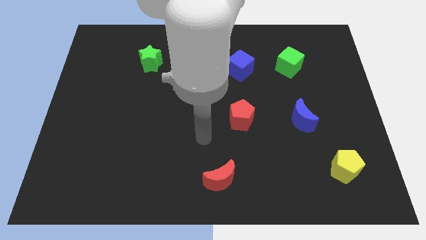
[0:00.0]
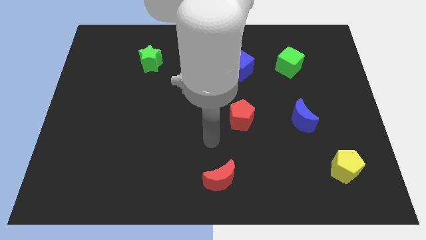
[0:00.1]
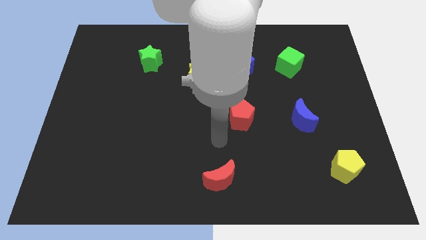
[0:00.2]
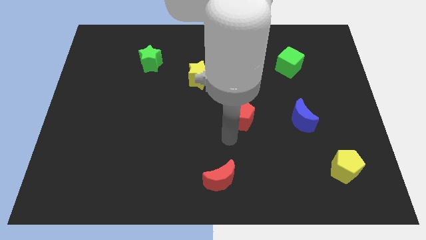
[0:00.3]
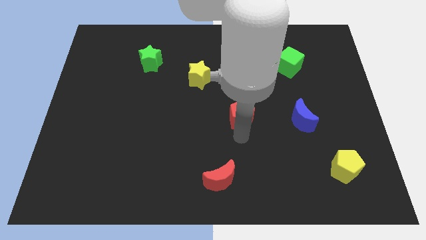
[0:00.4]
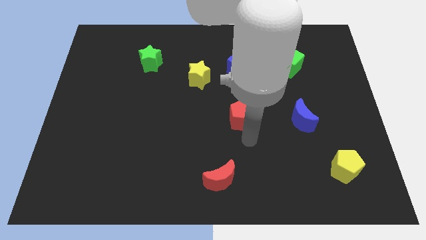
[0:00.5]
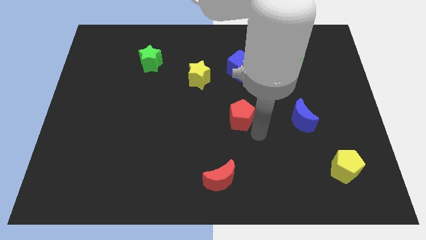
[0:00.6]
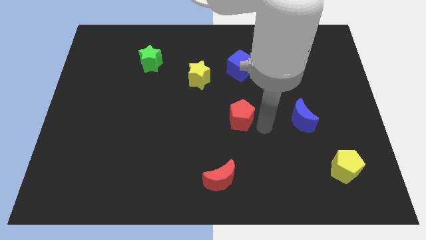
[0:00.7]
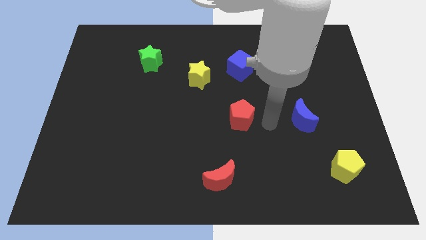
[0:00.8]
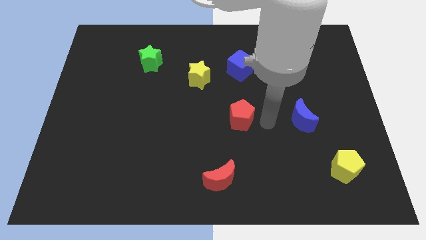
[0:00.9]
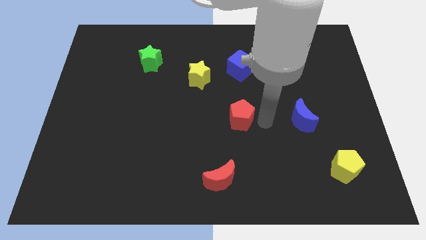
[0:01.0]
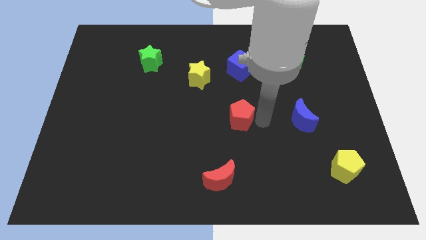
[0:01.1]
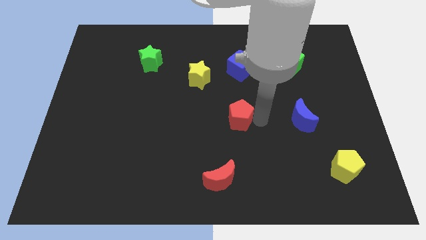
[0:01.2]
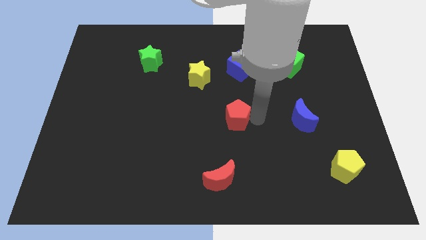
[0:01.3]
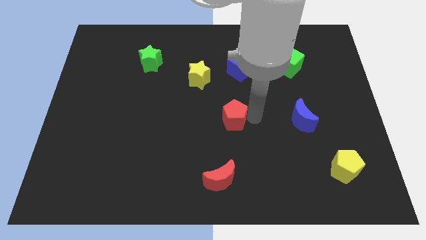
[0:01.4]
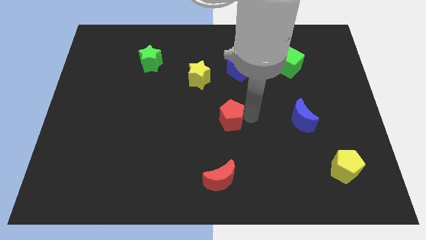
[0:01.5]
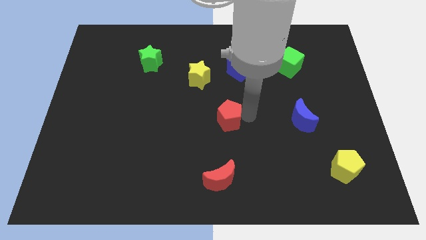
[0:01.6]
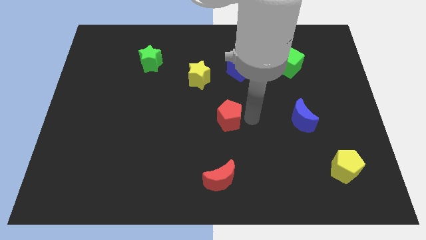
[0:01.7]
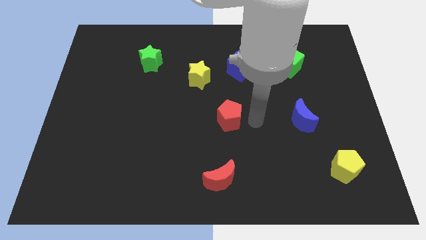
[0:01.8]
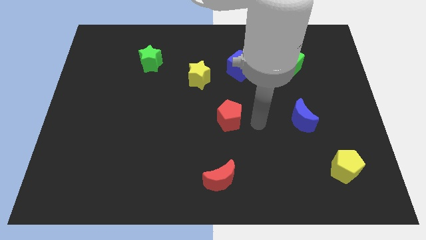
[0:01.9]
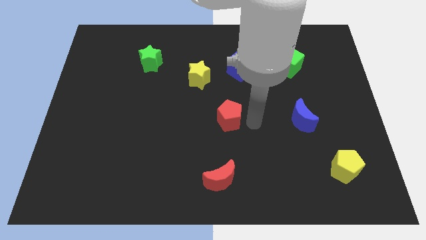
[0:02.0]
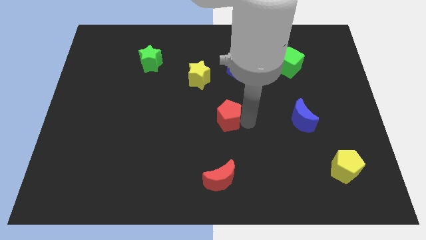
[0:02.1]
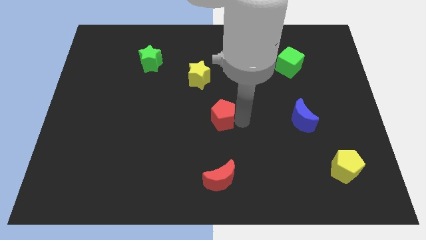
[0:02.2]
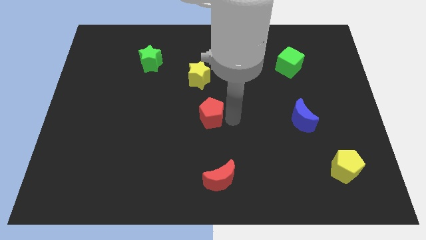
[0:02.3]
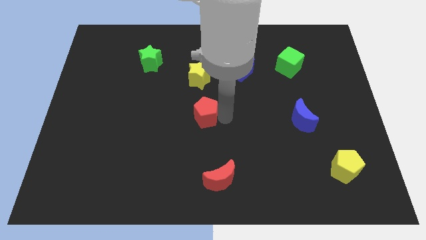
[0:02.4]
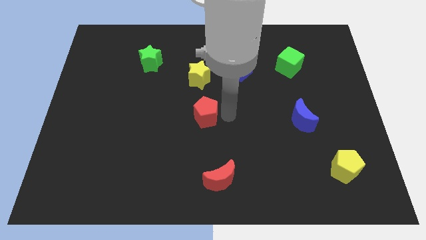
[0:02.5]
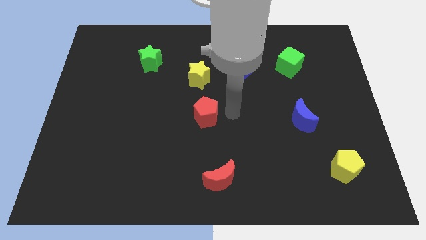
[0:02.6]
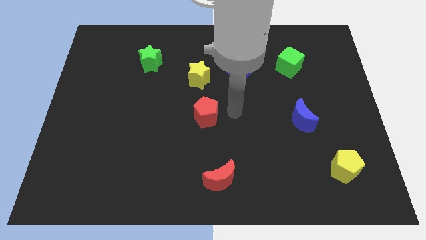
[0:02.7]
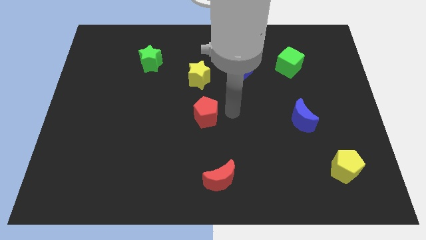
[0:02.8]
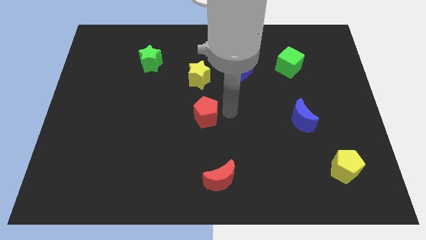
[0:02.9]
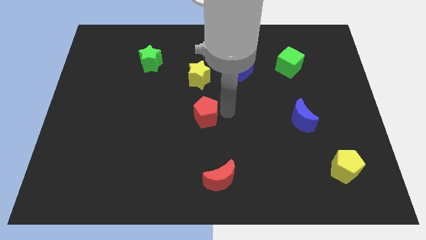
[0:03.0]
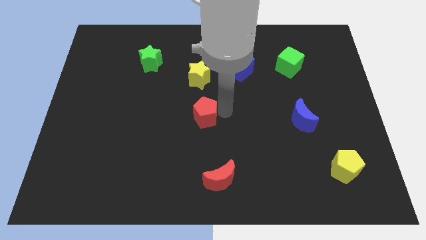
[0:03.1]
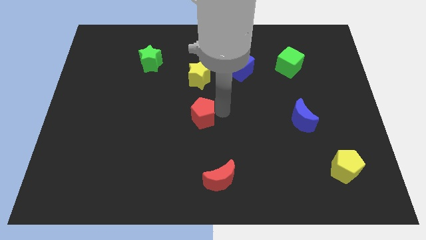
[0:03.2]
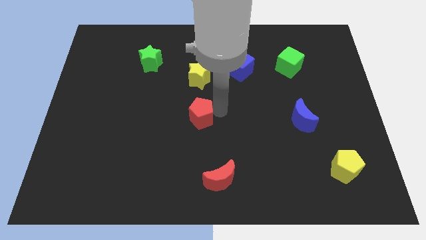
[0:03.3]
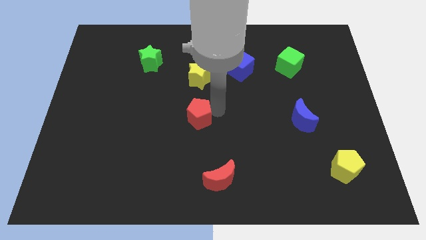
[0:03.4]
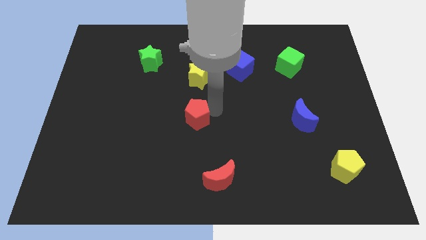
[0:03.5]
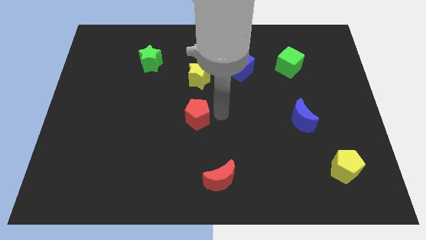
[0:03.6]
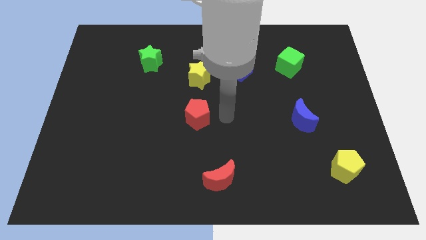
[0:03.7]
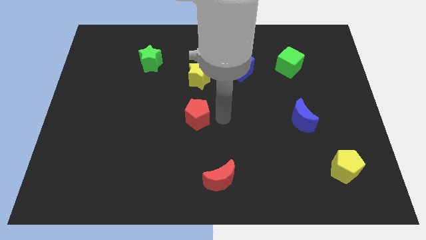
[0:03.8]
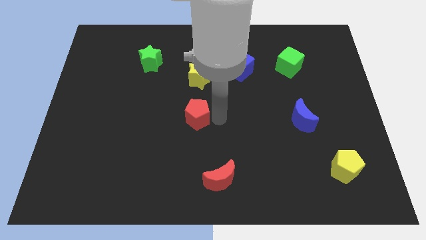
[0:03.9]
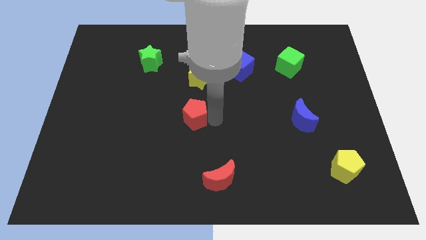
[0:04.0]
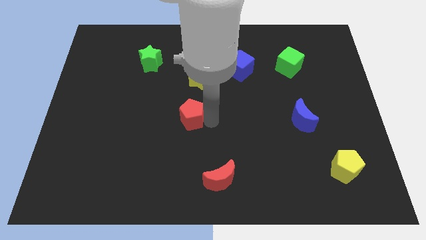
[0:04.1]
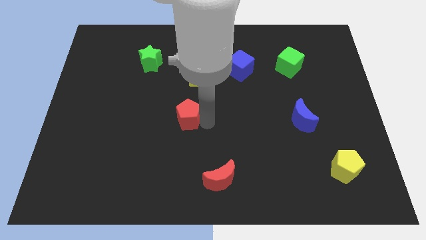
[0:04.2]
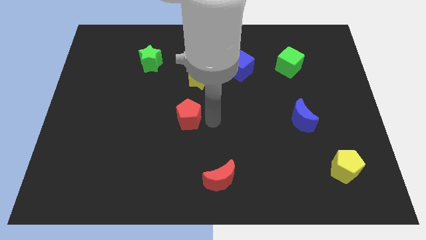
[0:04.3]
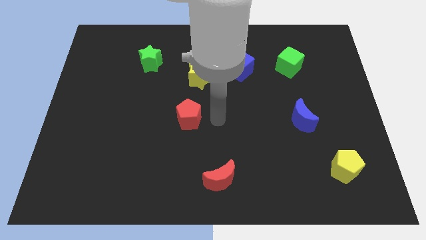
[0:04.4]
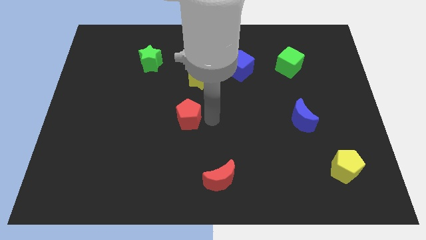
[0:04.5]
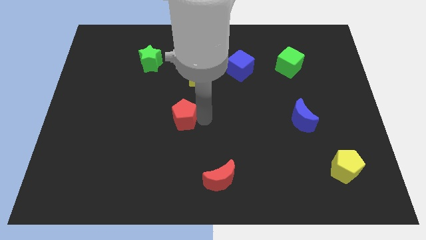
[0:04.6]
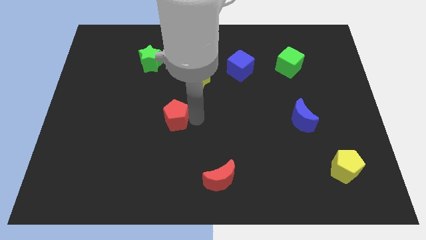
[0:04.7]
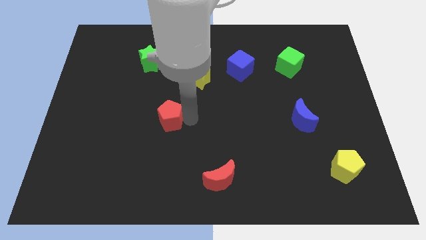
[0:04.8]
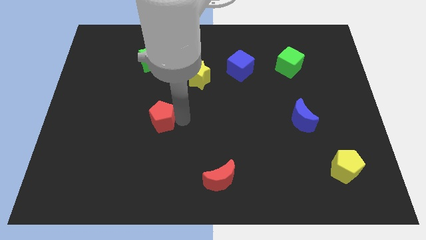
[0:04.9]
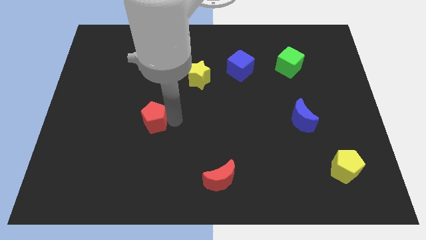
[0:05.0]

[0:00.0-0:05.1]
move the red pentagon to the left

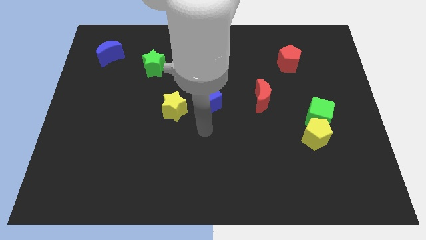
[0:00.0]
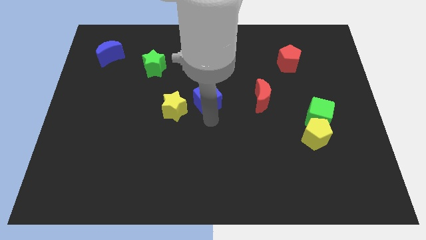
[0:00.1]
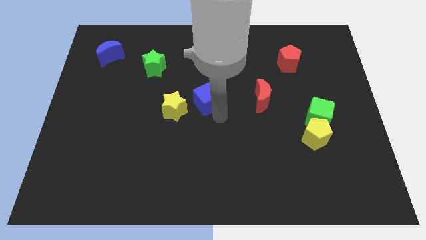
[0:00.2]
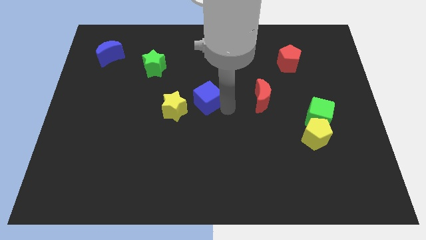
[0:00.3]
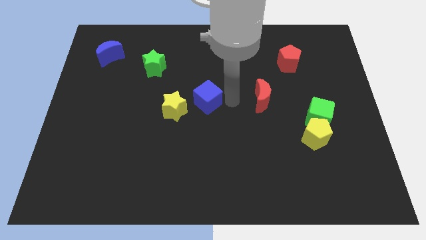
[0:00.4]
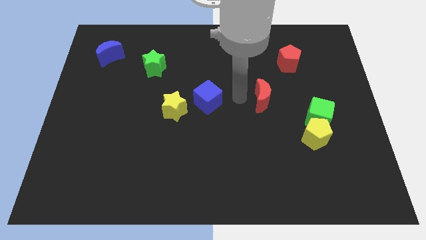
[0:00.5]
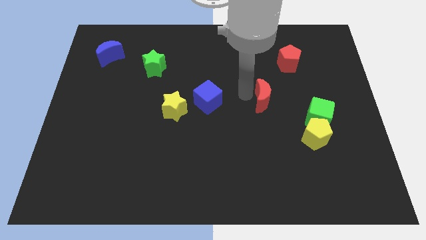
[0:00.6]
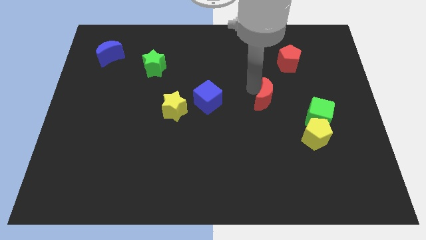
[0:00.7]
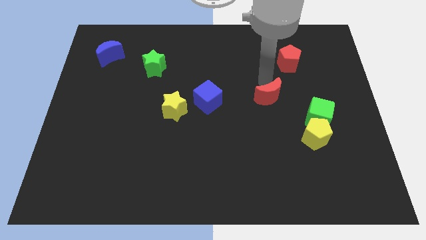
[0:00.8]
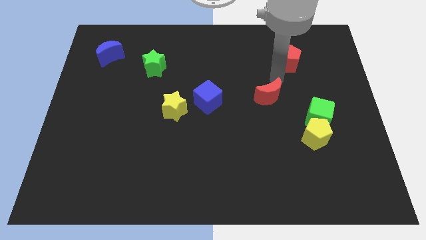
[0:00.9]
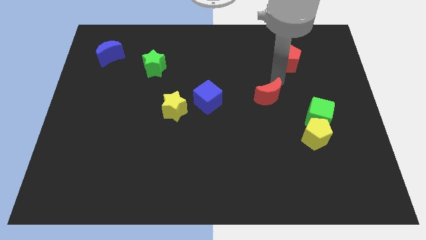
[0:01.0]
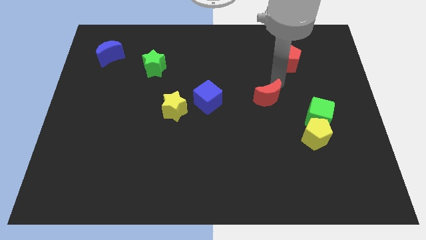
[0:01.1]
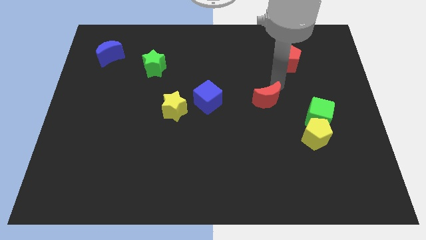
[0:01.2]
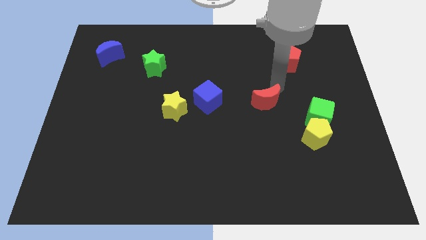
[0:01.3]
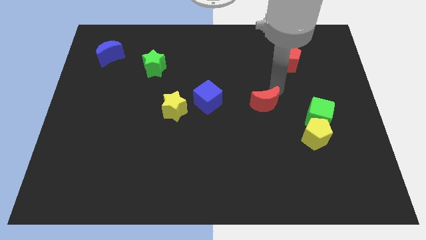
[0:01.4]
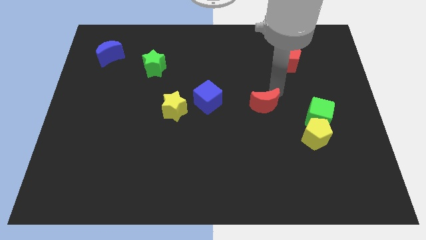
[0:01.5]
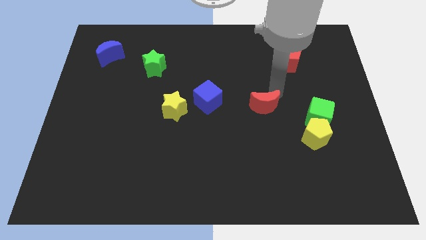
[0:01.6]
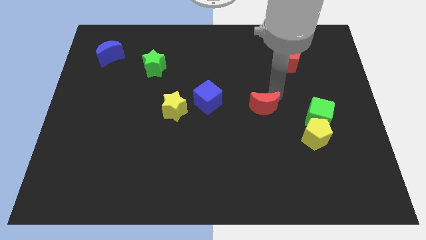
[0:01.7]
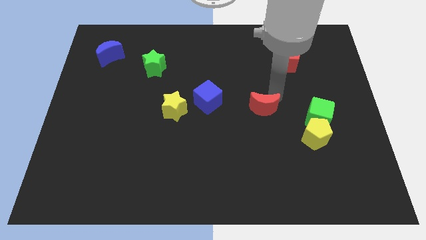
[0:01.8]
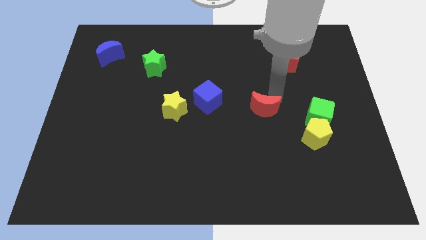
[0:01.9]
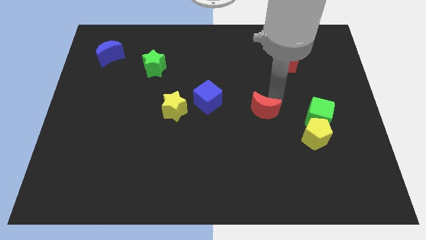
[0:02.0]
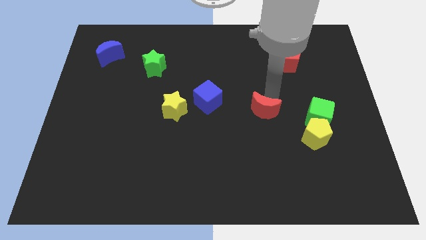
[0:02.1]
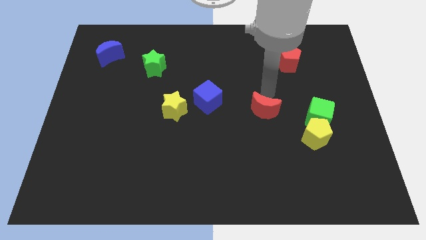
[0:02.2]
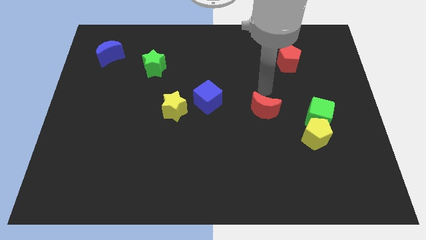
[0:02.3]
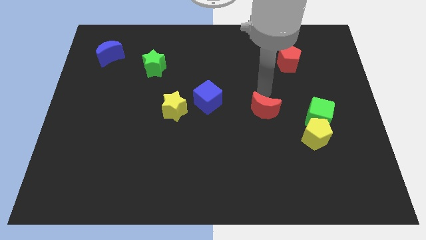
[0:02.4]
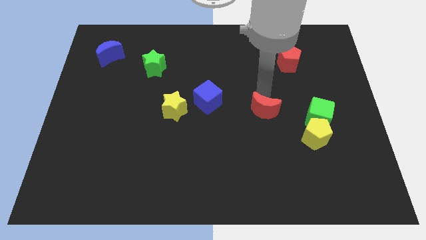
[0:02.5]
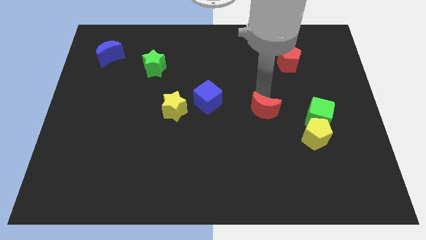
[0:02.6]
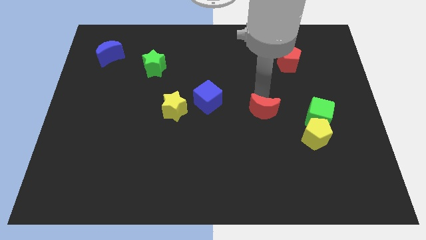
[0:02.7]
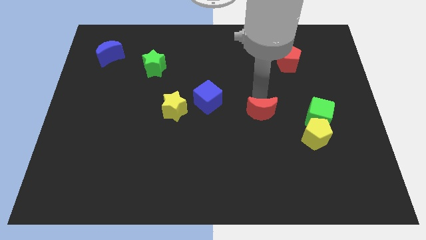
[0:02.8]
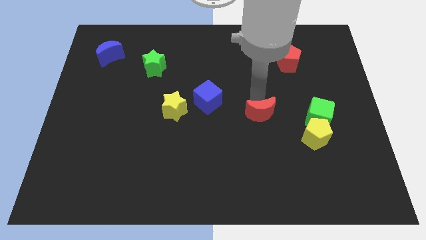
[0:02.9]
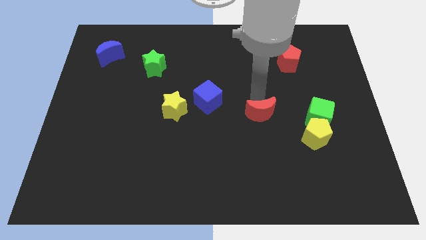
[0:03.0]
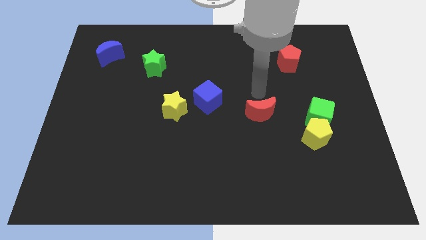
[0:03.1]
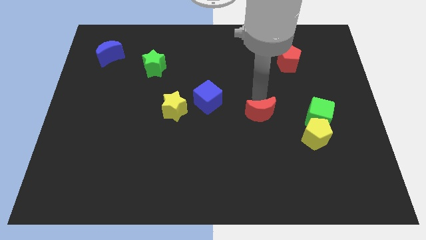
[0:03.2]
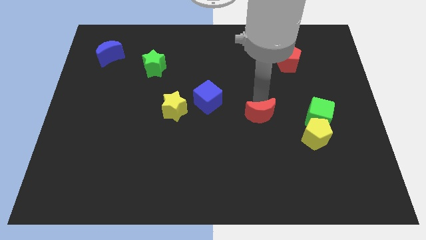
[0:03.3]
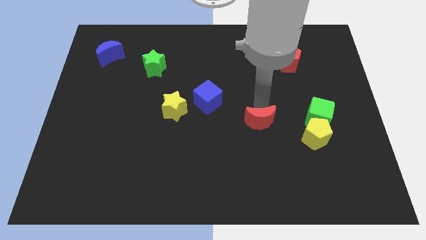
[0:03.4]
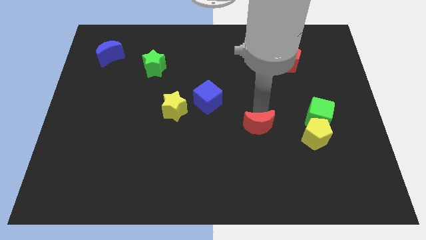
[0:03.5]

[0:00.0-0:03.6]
move the red moon a little downwards
